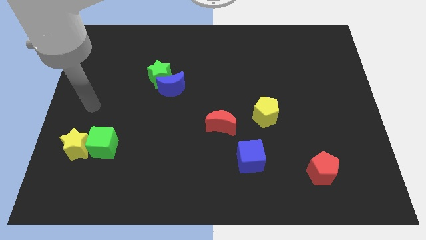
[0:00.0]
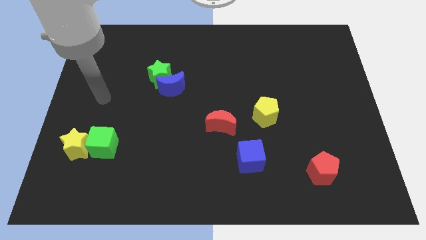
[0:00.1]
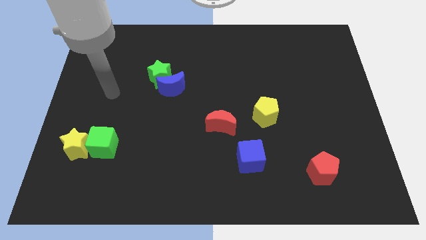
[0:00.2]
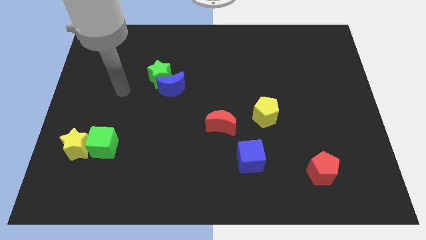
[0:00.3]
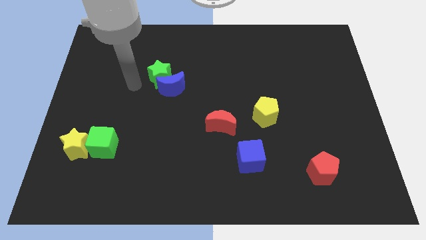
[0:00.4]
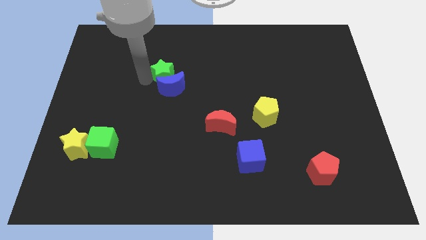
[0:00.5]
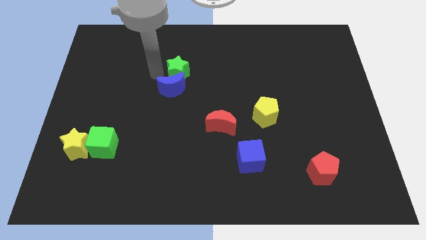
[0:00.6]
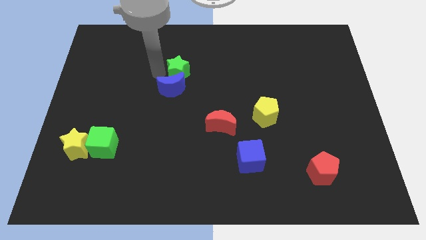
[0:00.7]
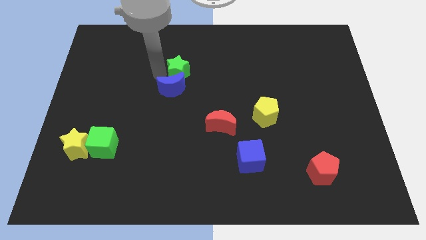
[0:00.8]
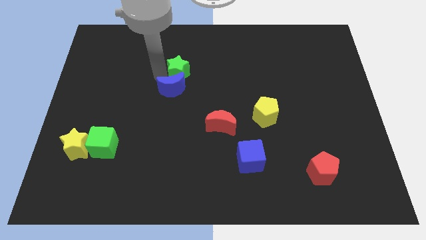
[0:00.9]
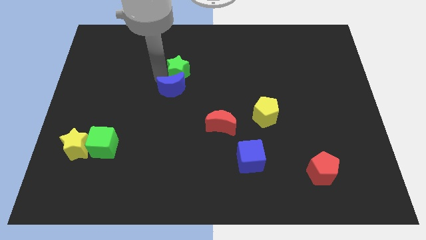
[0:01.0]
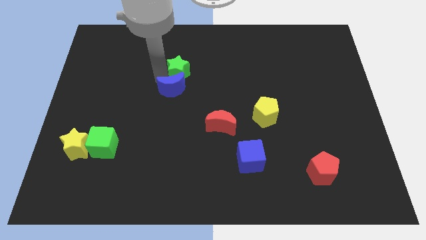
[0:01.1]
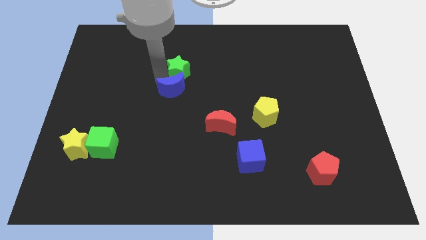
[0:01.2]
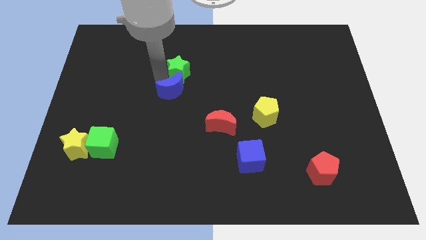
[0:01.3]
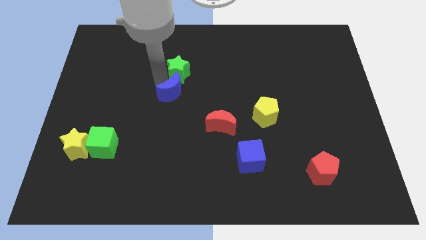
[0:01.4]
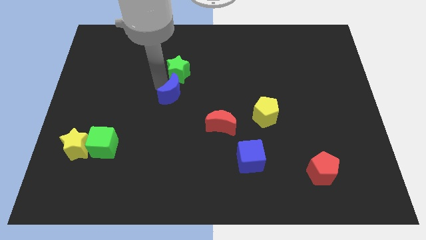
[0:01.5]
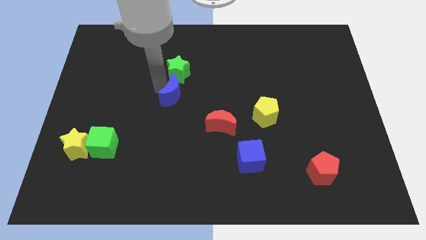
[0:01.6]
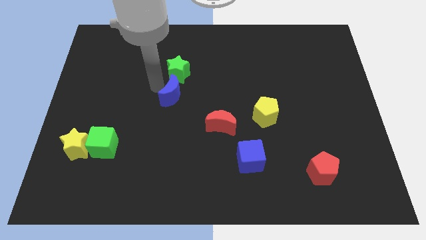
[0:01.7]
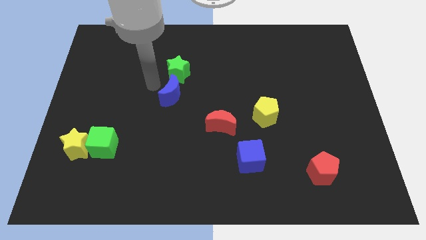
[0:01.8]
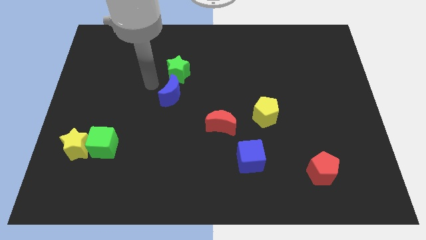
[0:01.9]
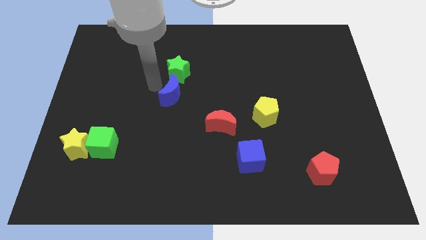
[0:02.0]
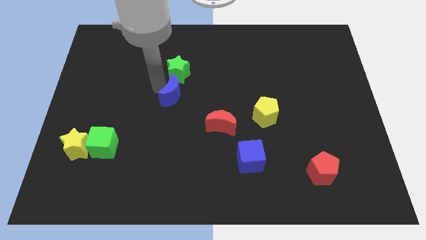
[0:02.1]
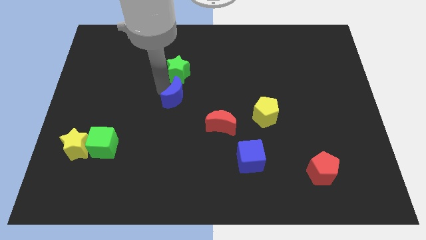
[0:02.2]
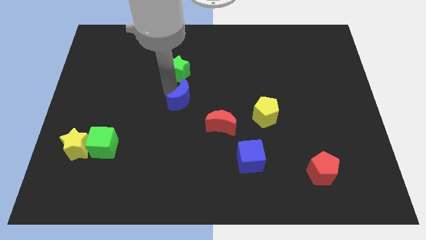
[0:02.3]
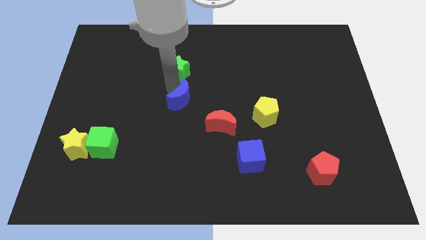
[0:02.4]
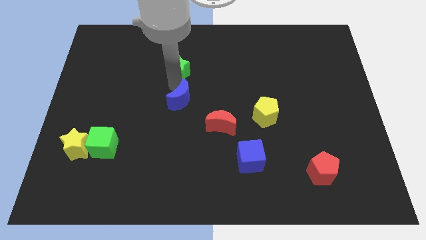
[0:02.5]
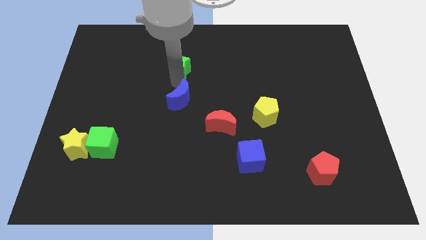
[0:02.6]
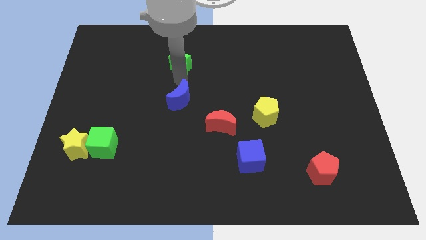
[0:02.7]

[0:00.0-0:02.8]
pull the blue moon apart from the green star

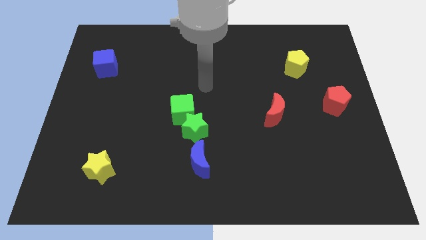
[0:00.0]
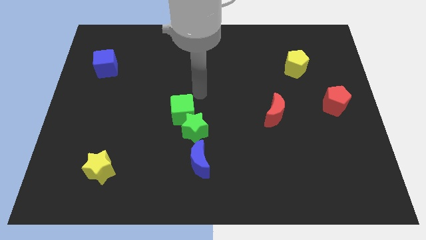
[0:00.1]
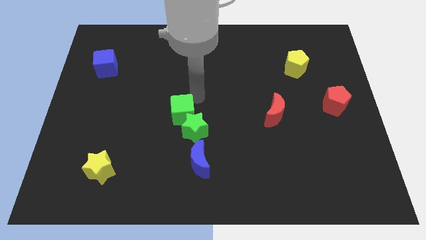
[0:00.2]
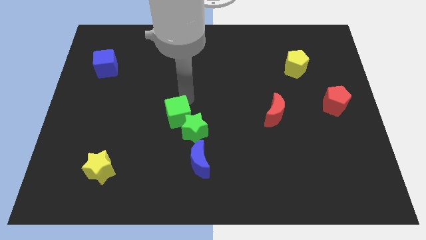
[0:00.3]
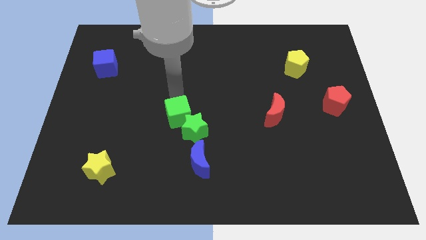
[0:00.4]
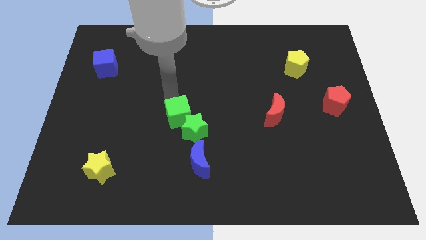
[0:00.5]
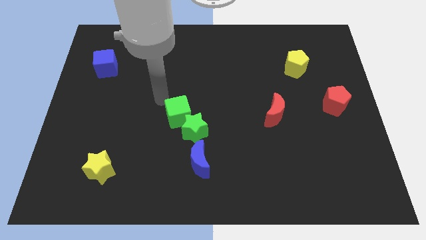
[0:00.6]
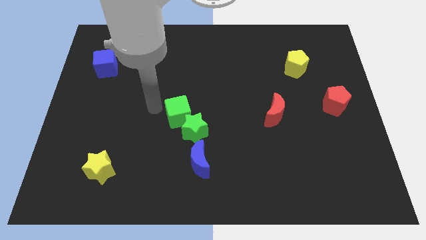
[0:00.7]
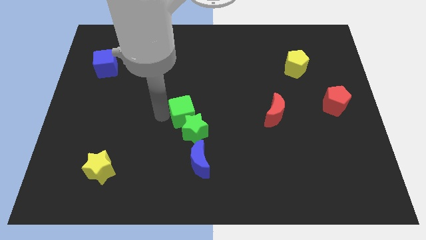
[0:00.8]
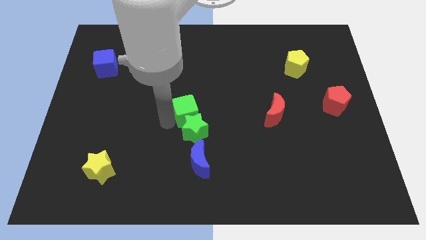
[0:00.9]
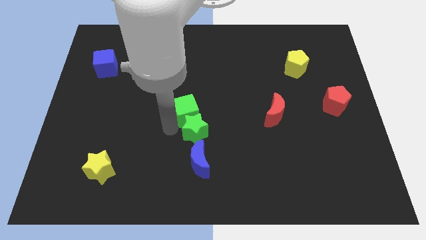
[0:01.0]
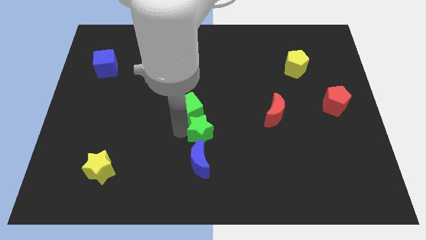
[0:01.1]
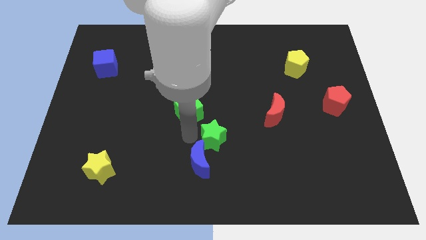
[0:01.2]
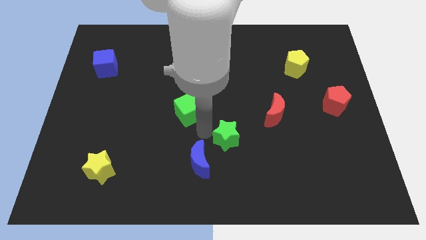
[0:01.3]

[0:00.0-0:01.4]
separate the green cube from the green star

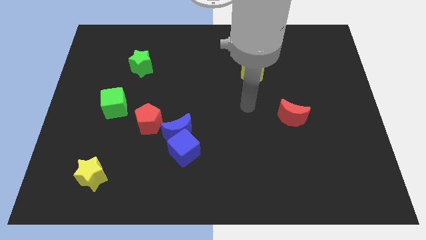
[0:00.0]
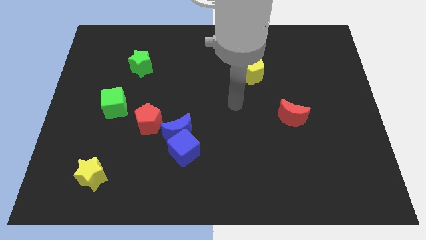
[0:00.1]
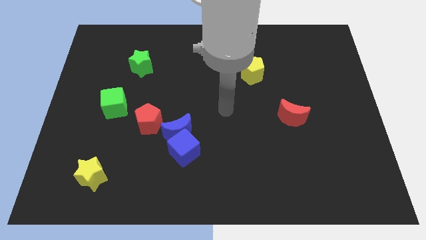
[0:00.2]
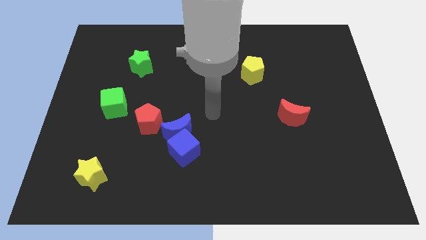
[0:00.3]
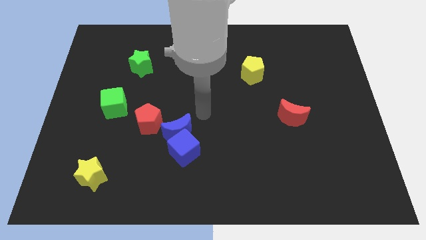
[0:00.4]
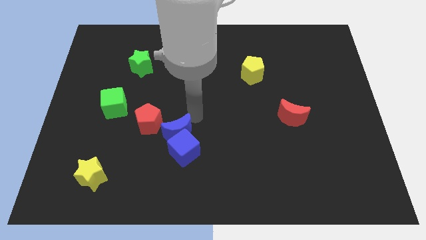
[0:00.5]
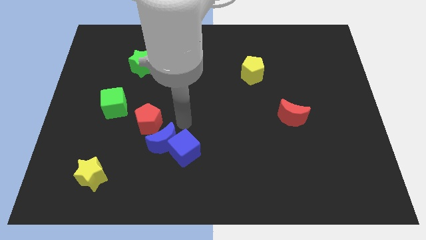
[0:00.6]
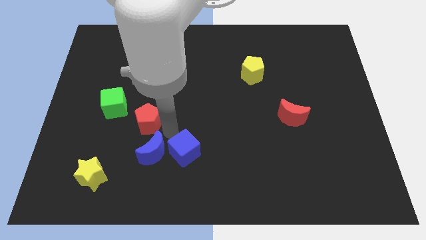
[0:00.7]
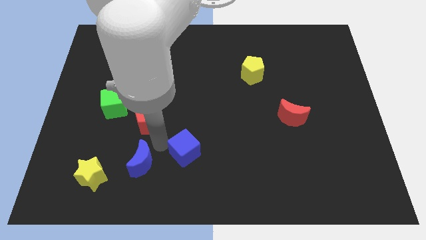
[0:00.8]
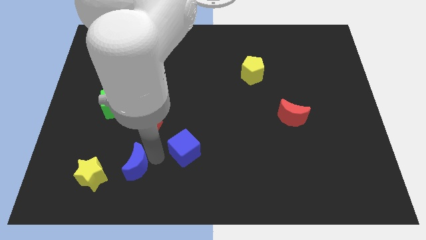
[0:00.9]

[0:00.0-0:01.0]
move the blue cube away from the blue moon

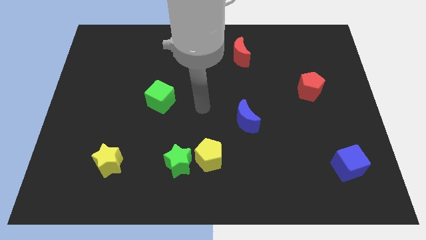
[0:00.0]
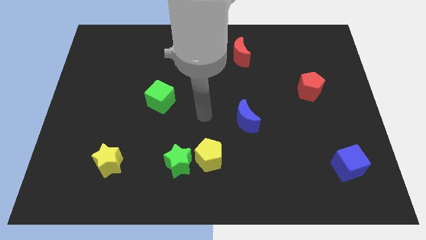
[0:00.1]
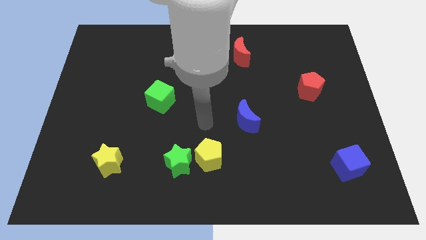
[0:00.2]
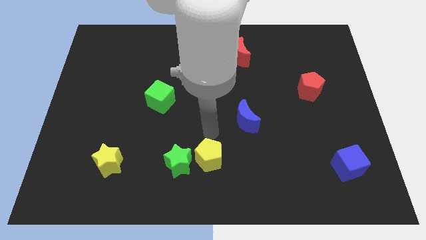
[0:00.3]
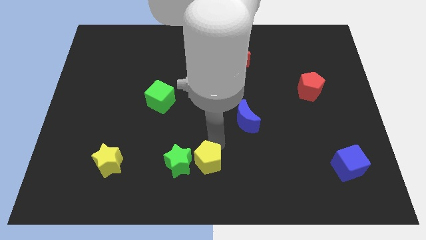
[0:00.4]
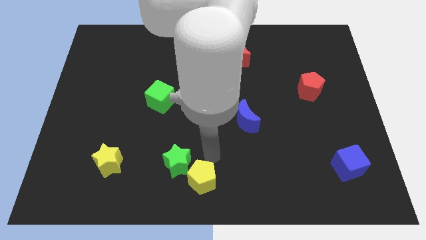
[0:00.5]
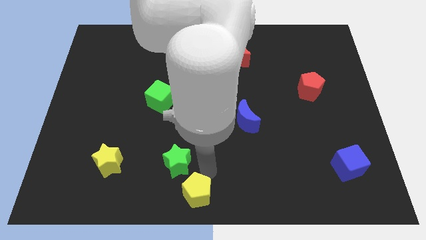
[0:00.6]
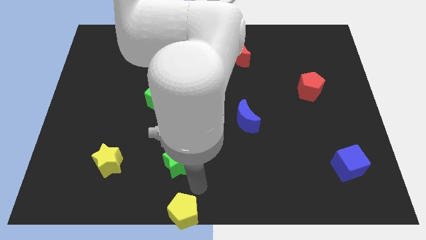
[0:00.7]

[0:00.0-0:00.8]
separate the green star from the yellow pentagon

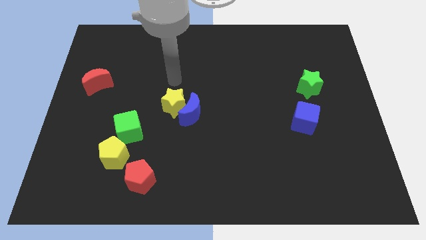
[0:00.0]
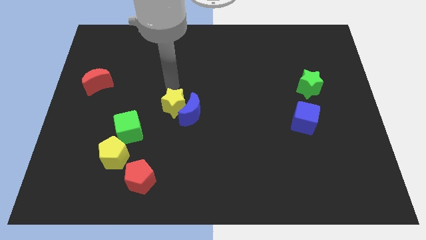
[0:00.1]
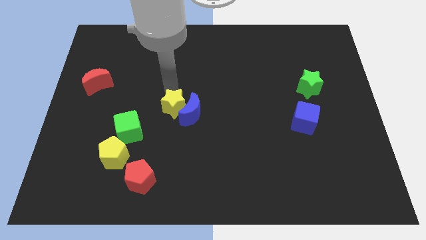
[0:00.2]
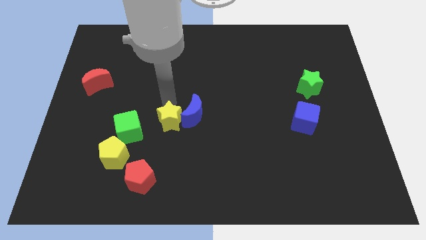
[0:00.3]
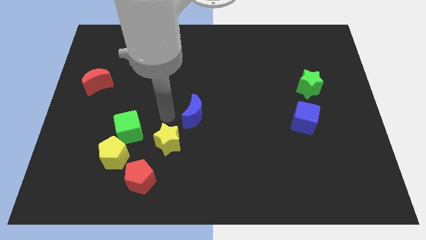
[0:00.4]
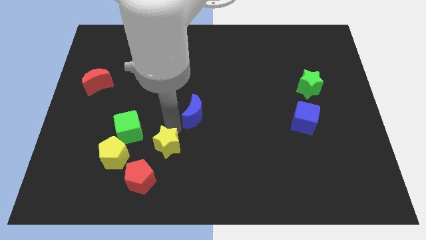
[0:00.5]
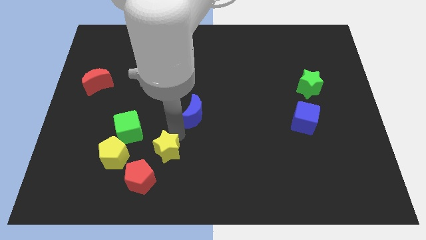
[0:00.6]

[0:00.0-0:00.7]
separate the blue moon from the yellow star

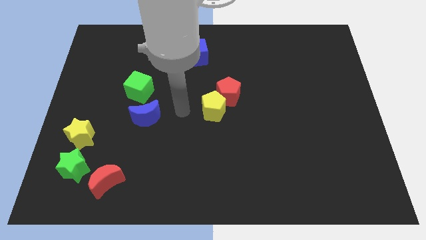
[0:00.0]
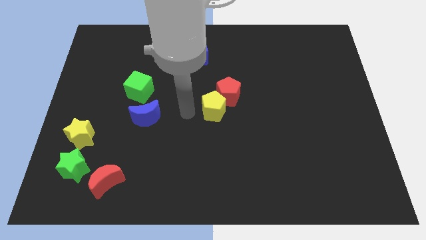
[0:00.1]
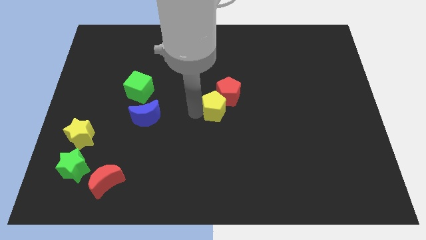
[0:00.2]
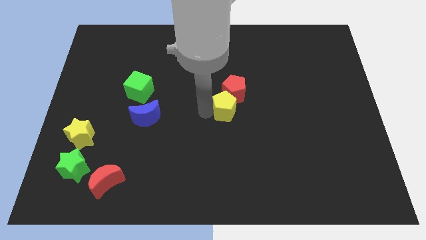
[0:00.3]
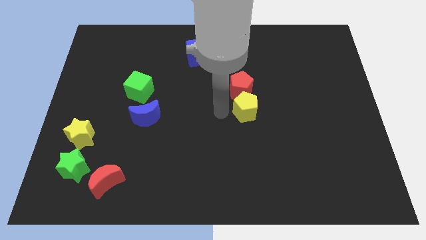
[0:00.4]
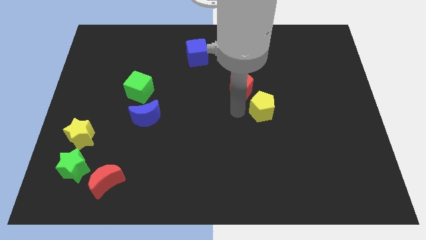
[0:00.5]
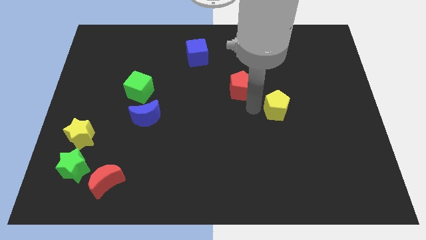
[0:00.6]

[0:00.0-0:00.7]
separate the red pentagon from the yellow pentagon

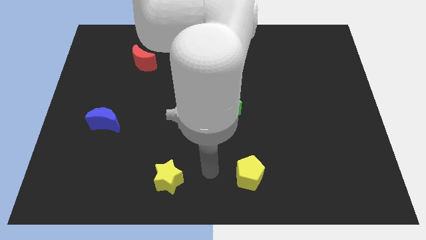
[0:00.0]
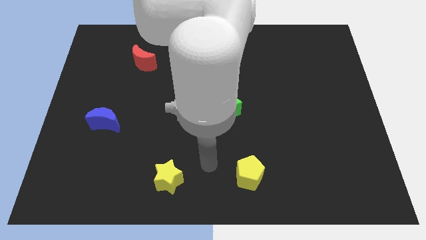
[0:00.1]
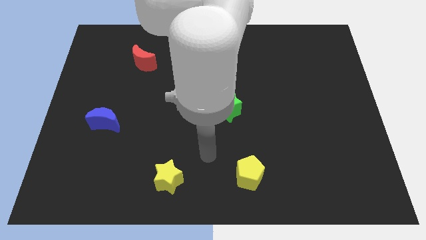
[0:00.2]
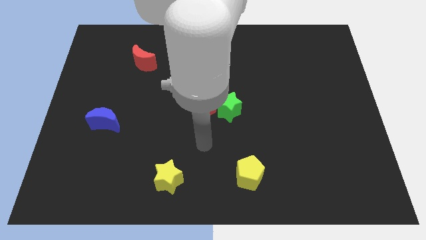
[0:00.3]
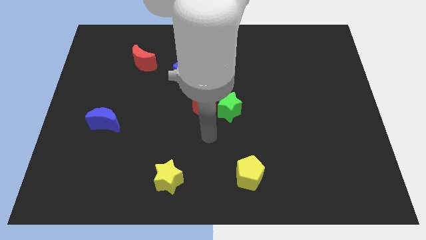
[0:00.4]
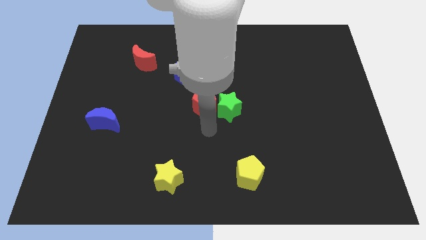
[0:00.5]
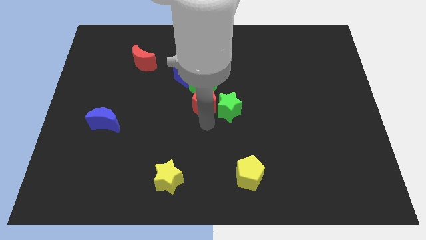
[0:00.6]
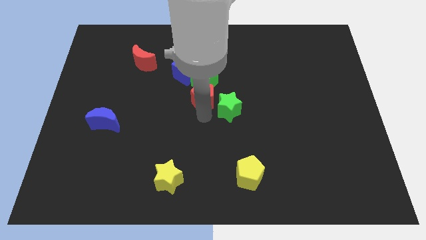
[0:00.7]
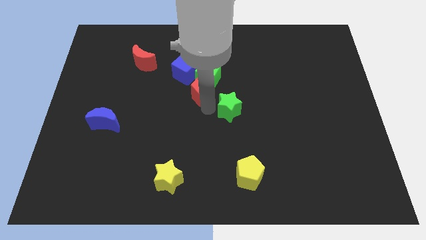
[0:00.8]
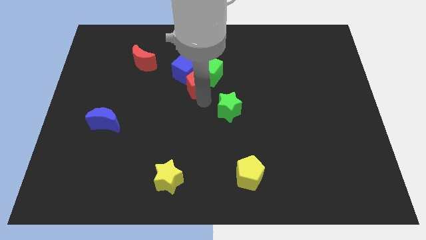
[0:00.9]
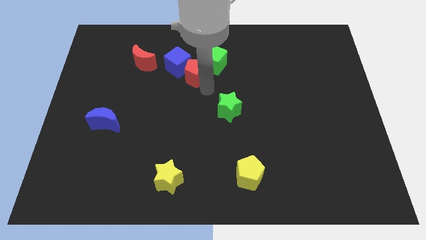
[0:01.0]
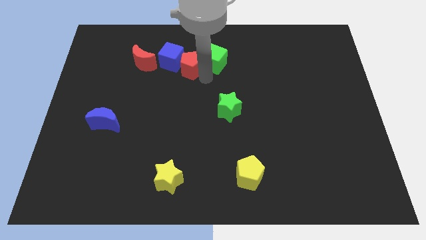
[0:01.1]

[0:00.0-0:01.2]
separate the blue cube from the green cube

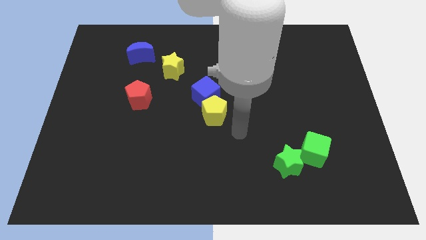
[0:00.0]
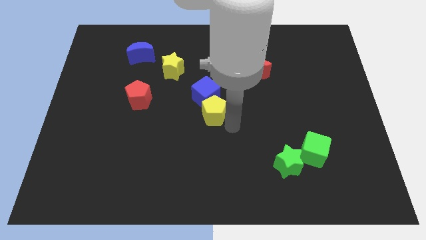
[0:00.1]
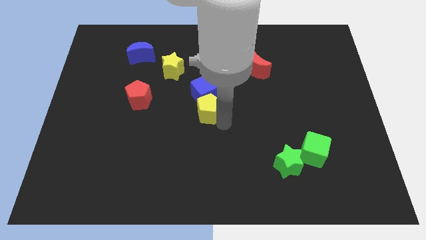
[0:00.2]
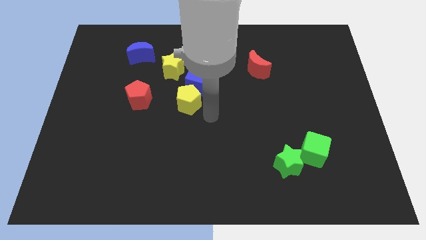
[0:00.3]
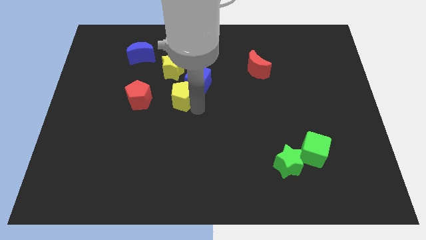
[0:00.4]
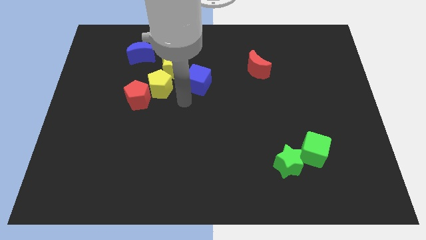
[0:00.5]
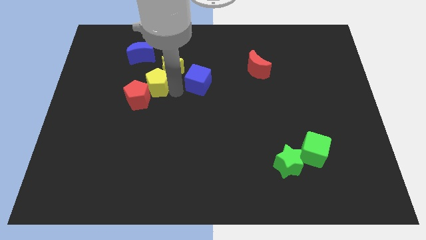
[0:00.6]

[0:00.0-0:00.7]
move the blue cube away from the yellow pentagon

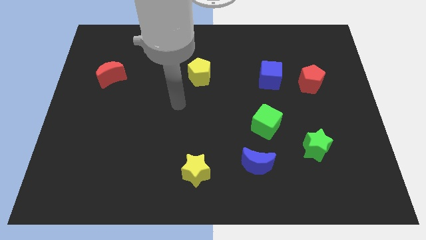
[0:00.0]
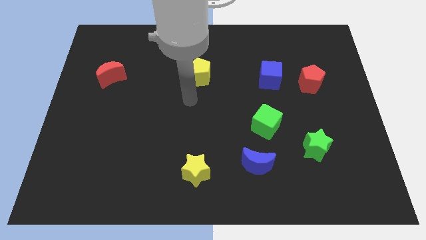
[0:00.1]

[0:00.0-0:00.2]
move the red pentagon away from the blue cube
